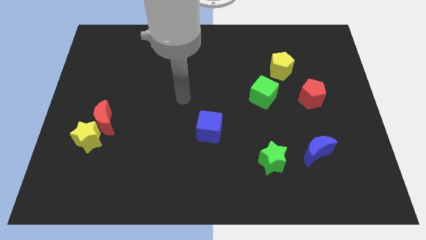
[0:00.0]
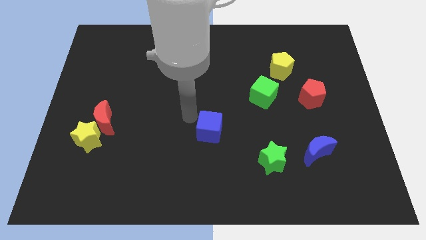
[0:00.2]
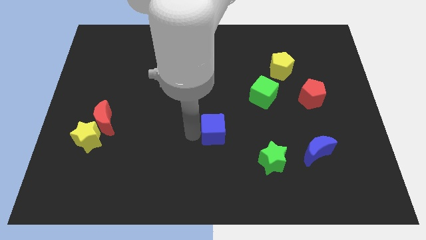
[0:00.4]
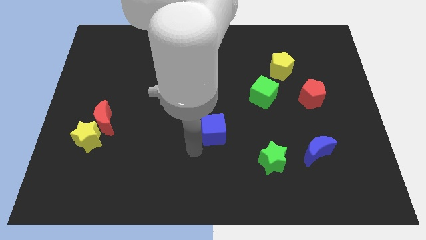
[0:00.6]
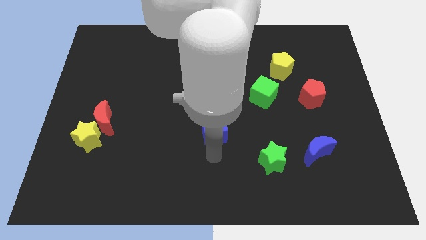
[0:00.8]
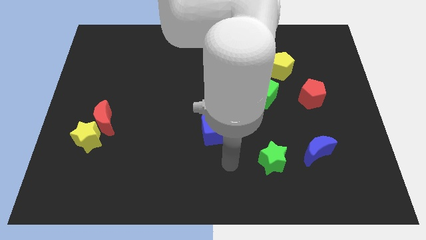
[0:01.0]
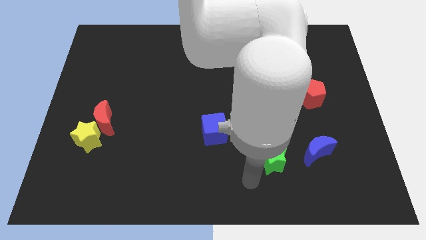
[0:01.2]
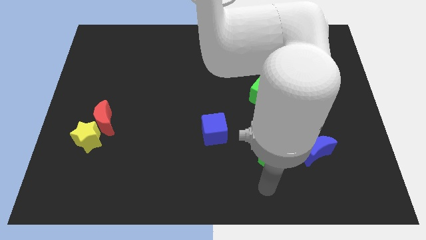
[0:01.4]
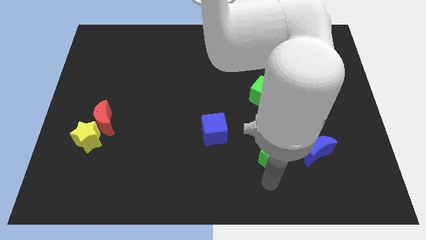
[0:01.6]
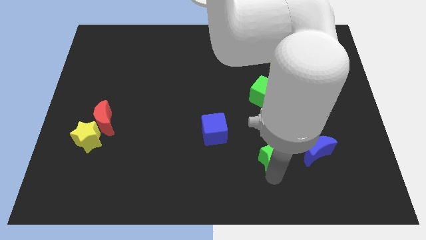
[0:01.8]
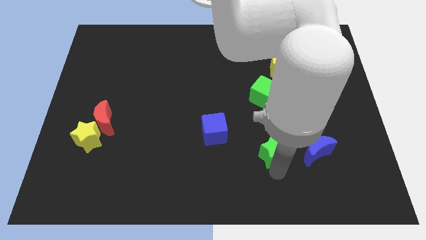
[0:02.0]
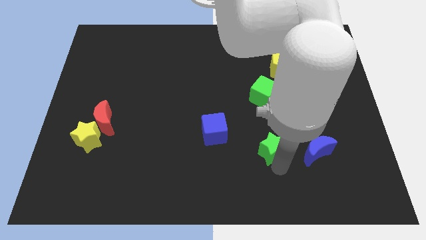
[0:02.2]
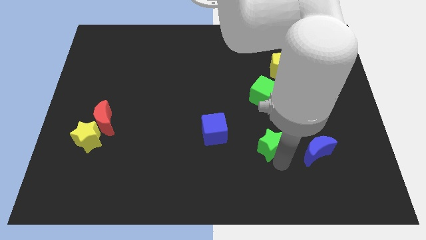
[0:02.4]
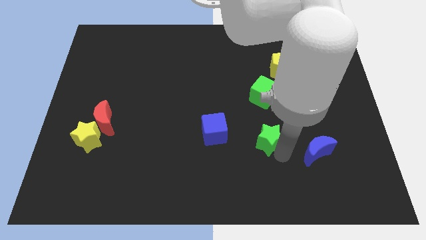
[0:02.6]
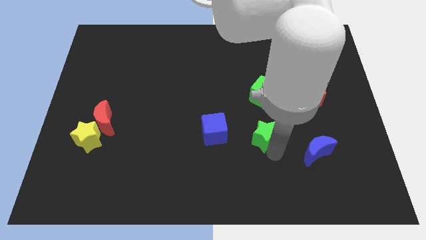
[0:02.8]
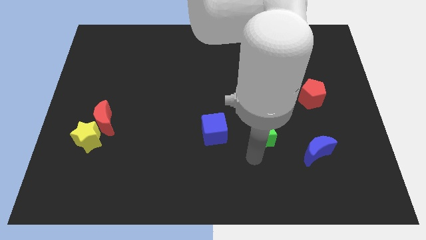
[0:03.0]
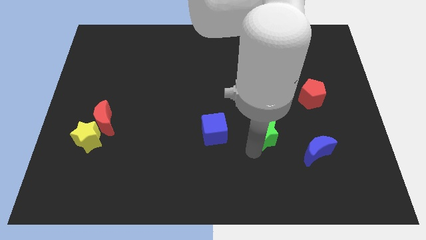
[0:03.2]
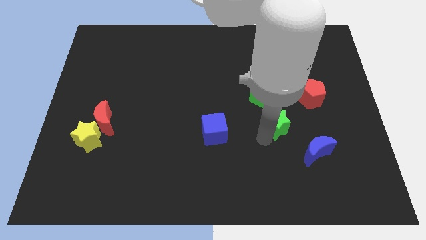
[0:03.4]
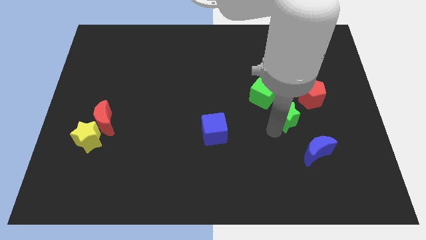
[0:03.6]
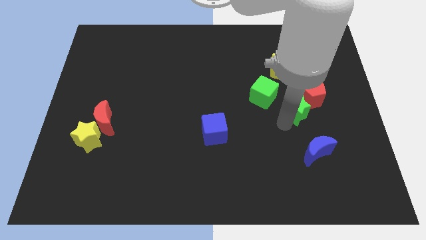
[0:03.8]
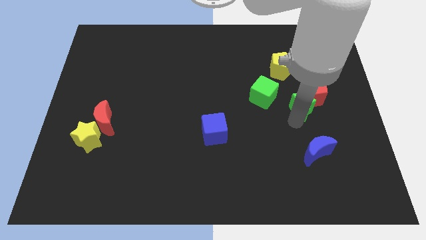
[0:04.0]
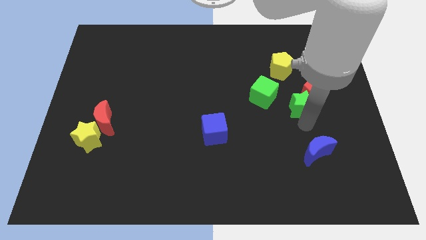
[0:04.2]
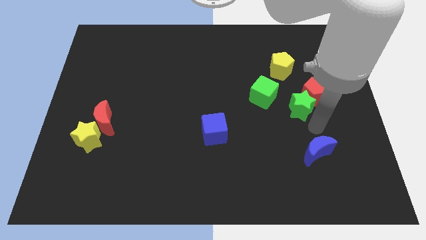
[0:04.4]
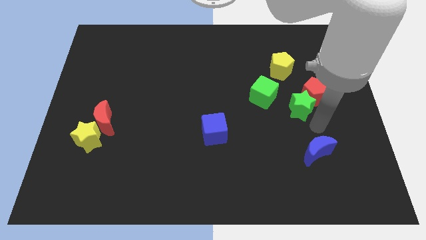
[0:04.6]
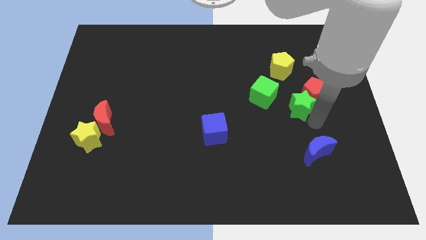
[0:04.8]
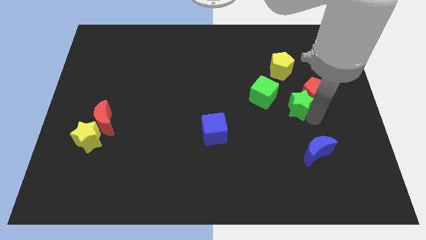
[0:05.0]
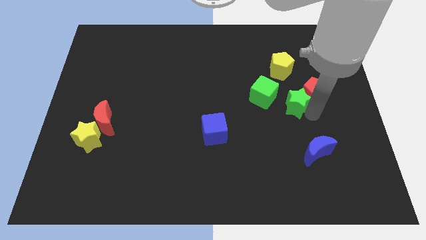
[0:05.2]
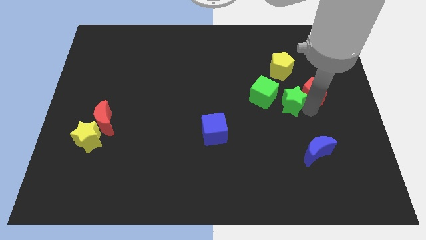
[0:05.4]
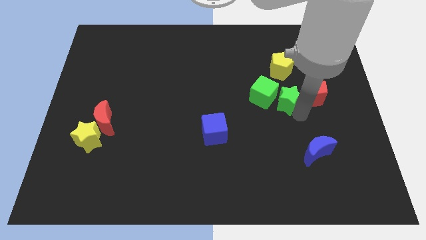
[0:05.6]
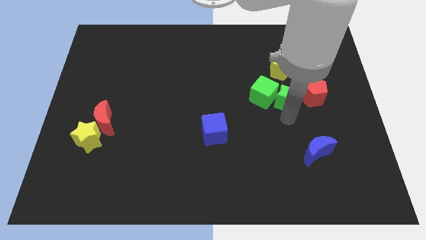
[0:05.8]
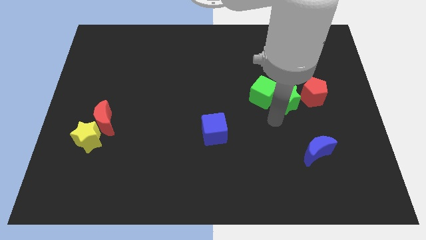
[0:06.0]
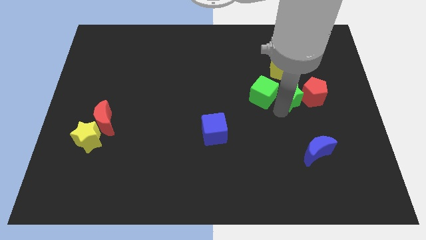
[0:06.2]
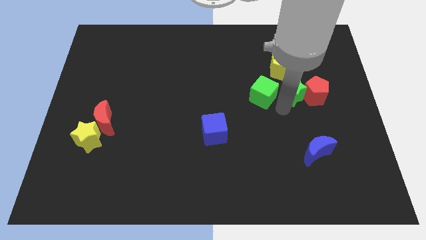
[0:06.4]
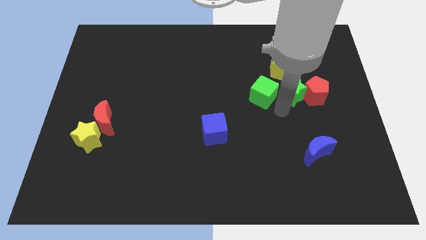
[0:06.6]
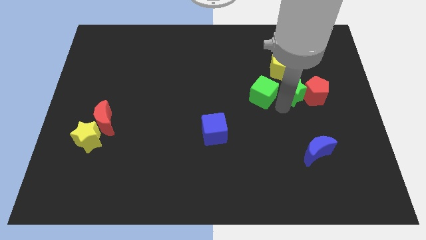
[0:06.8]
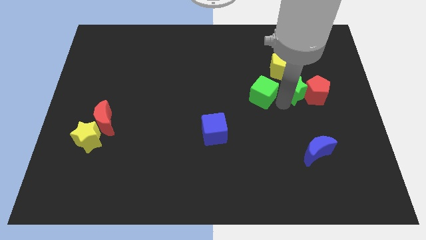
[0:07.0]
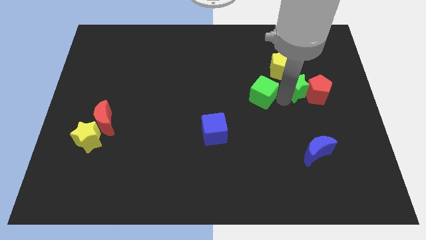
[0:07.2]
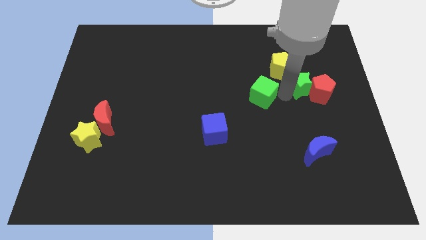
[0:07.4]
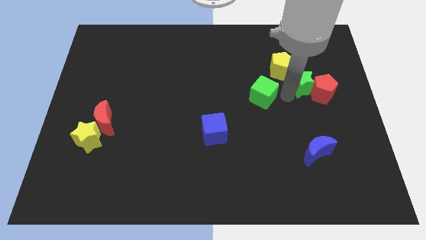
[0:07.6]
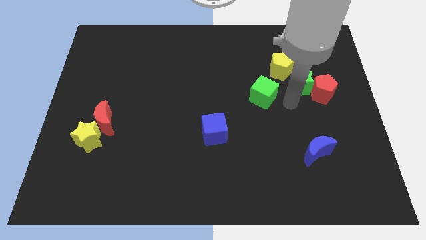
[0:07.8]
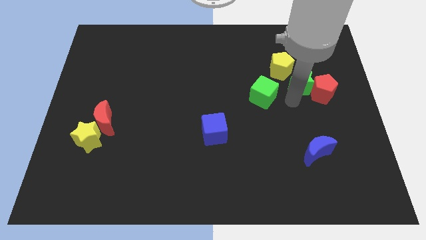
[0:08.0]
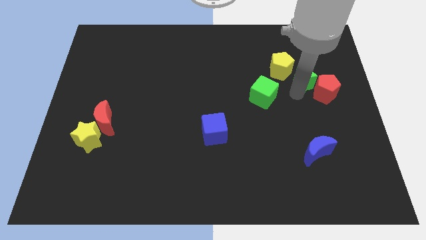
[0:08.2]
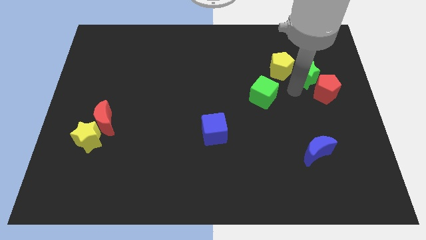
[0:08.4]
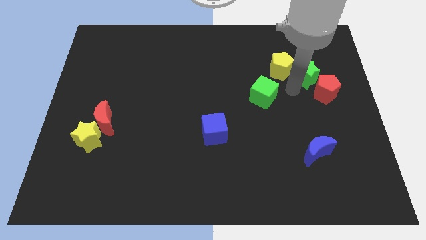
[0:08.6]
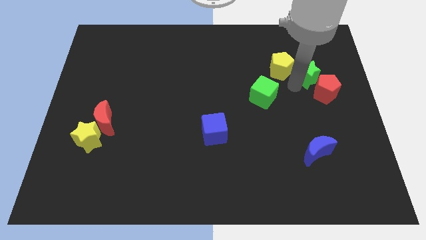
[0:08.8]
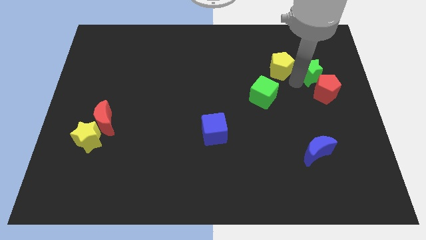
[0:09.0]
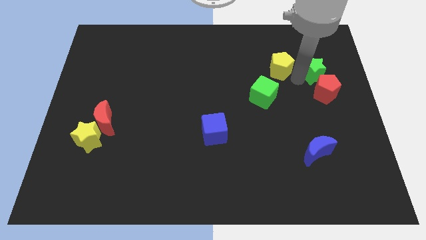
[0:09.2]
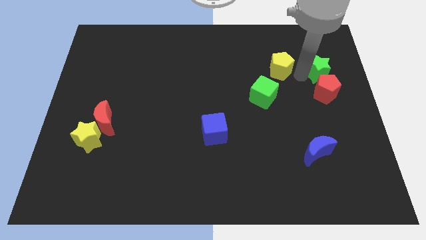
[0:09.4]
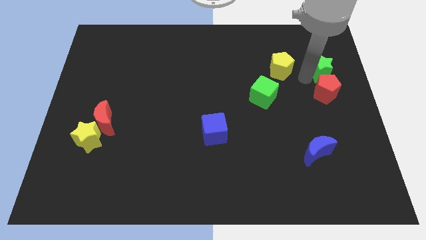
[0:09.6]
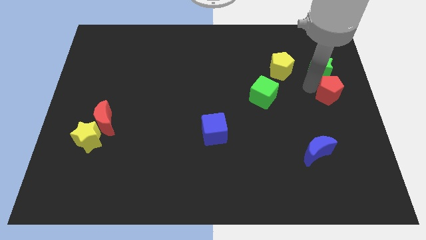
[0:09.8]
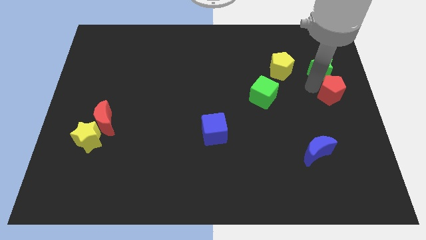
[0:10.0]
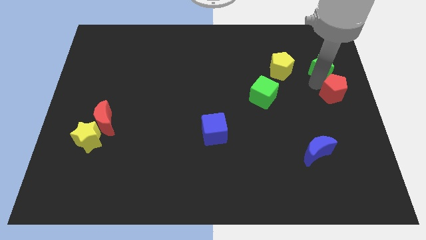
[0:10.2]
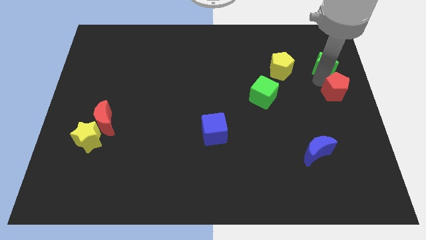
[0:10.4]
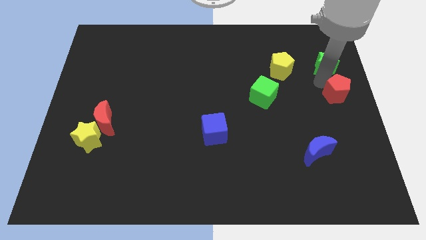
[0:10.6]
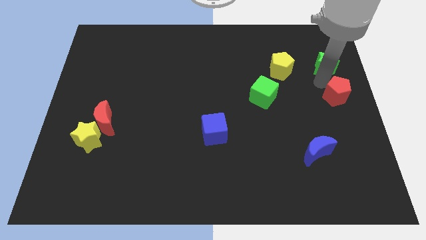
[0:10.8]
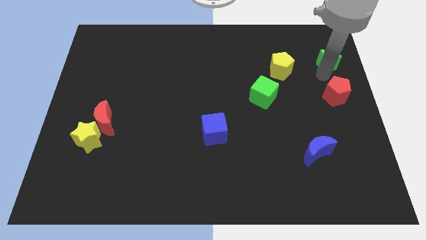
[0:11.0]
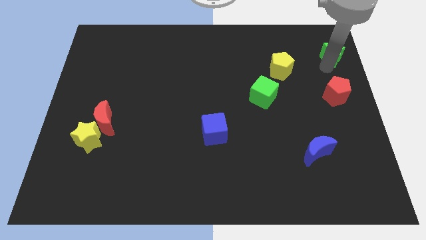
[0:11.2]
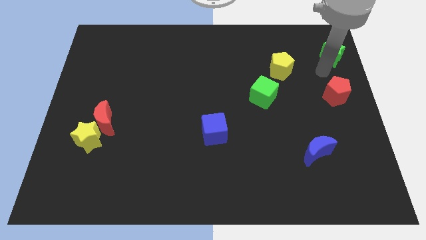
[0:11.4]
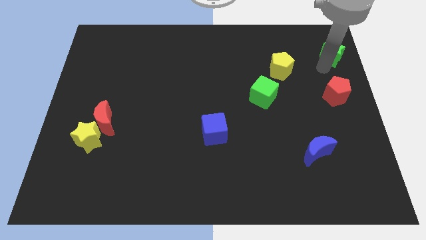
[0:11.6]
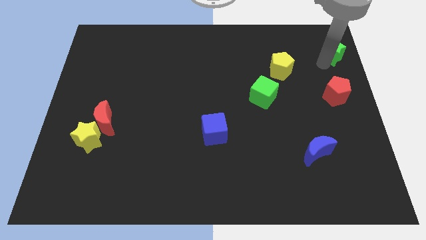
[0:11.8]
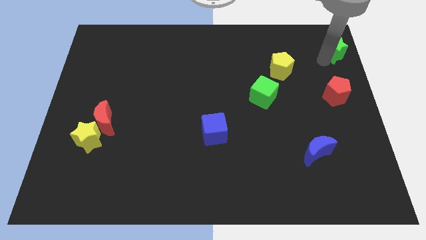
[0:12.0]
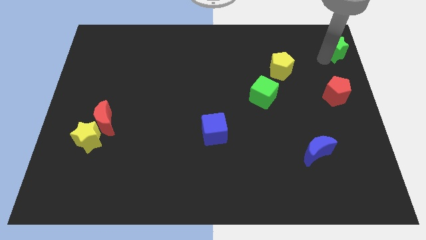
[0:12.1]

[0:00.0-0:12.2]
put the green star to the top right of the board

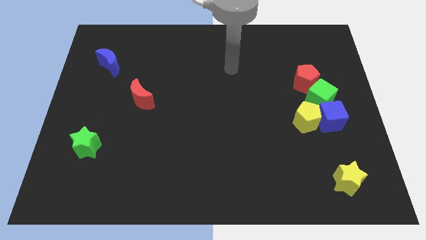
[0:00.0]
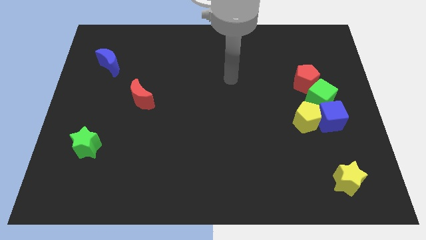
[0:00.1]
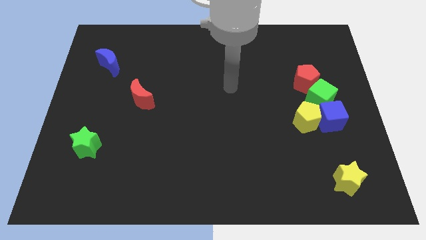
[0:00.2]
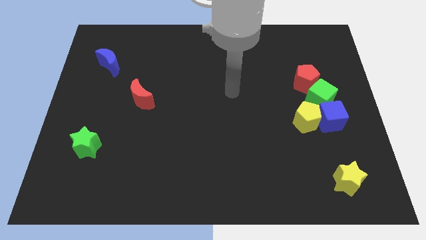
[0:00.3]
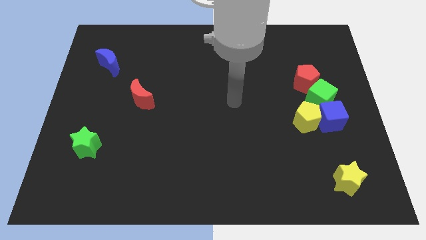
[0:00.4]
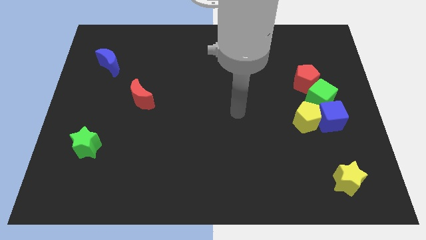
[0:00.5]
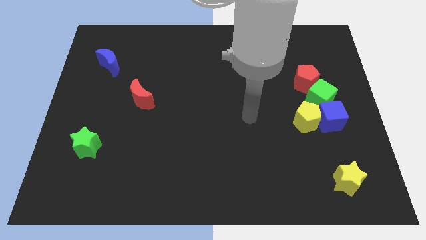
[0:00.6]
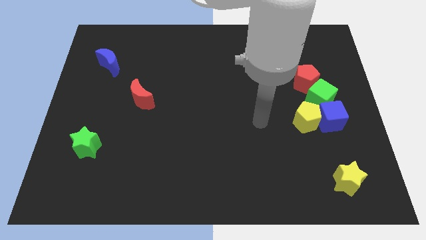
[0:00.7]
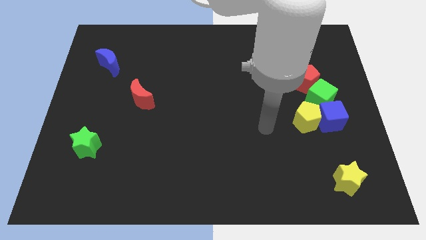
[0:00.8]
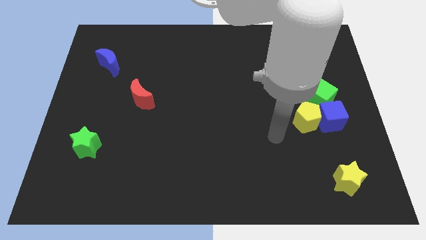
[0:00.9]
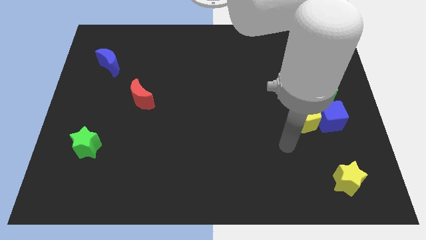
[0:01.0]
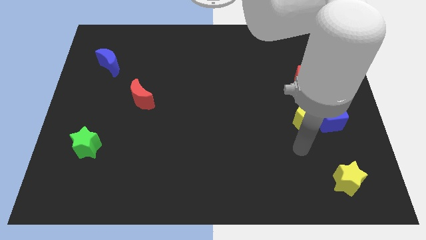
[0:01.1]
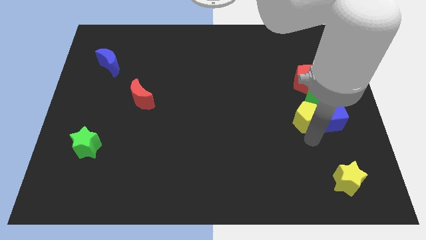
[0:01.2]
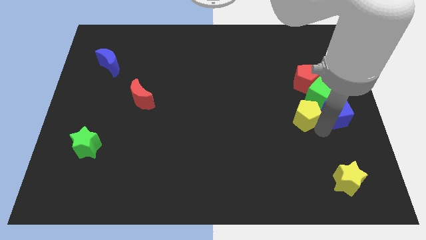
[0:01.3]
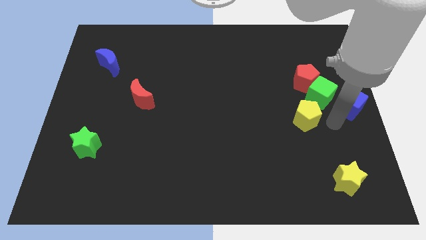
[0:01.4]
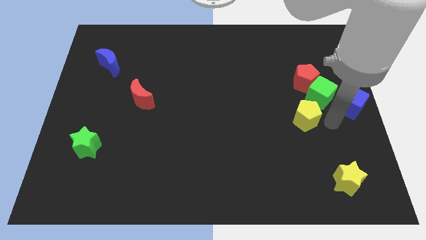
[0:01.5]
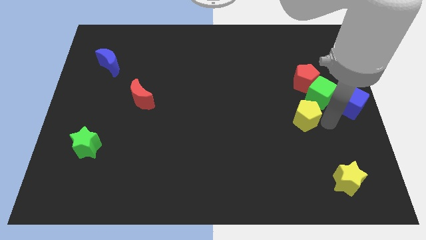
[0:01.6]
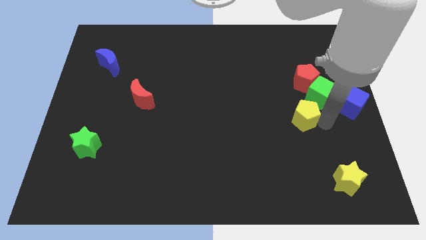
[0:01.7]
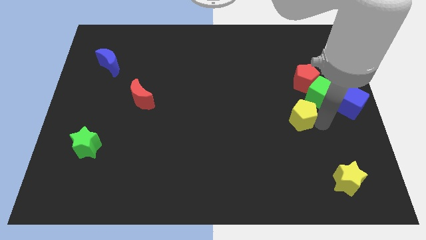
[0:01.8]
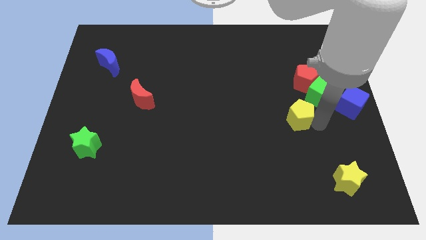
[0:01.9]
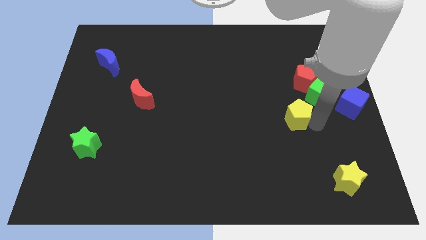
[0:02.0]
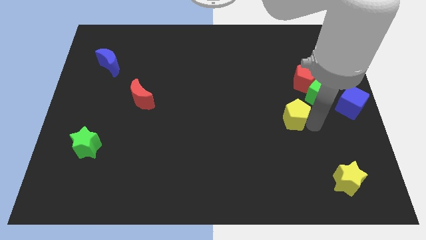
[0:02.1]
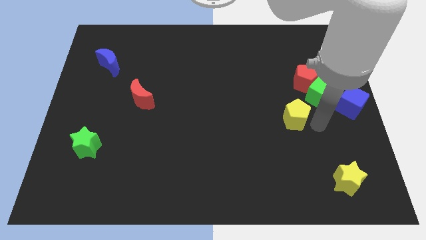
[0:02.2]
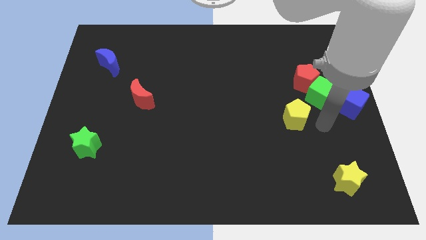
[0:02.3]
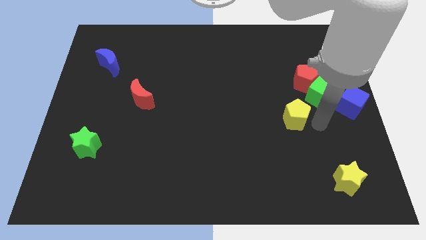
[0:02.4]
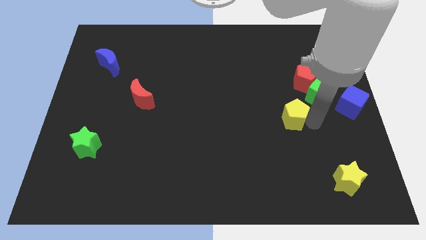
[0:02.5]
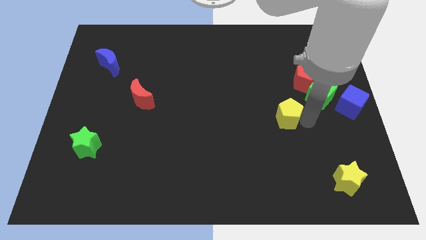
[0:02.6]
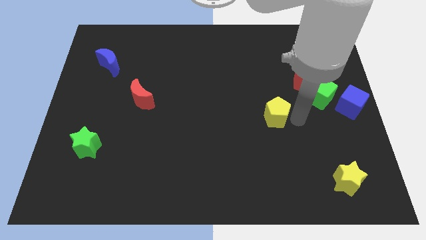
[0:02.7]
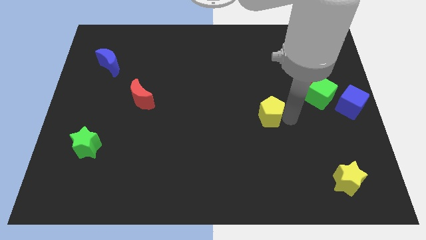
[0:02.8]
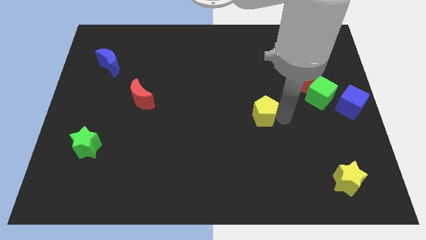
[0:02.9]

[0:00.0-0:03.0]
push the yellow pentagon to the center
